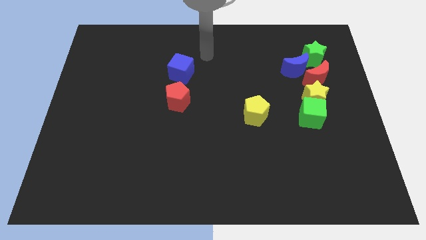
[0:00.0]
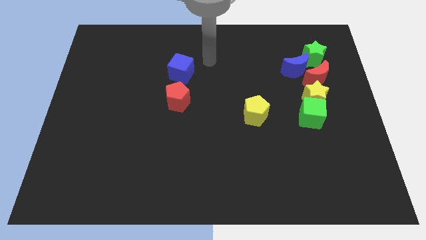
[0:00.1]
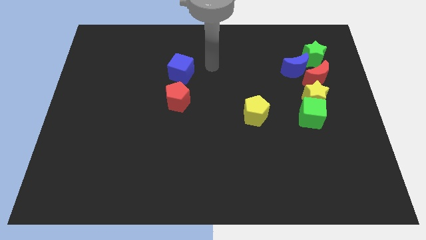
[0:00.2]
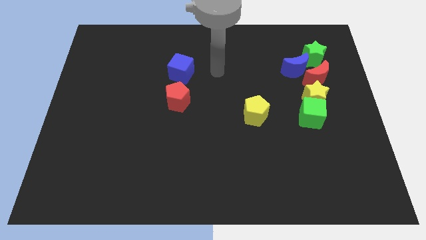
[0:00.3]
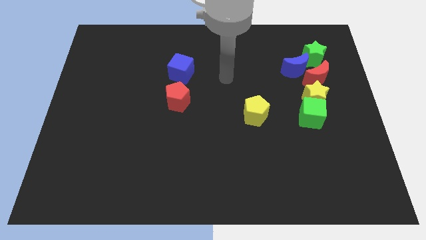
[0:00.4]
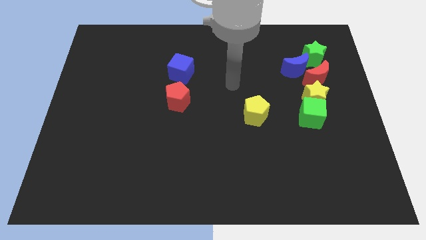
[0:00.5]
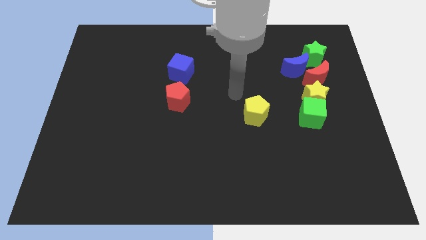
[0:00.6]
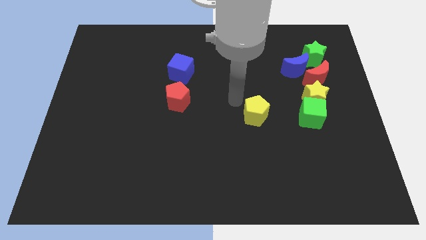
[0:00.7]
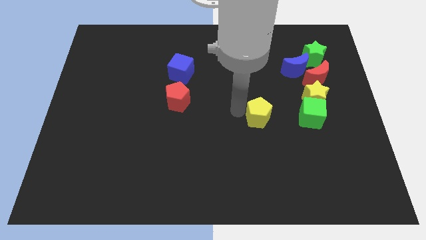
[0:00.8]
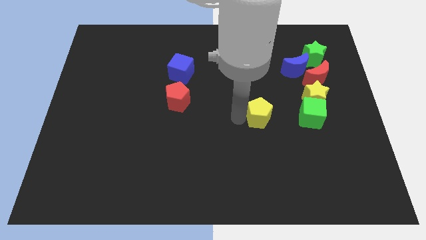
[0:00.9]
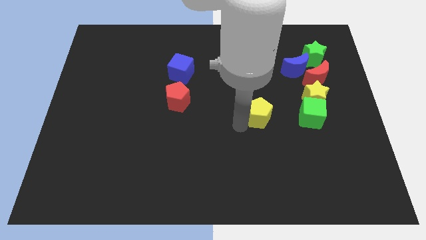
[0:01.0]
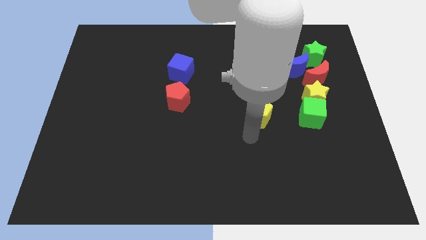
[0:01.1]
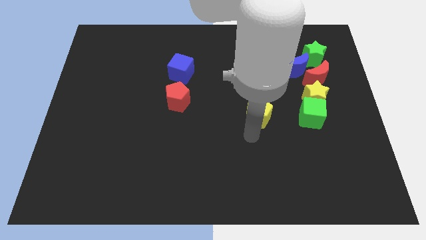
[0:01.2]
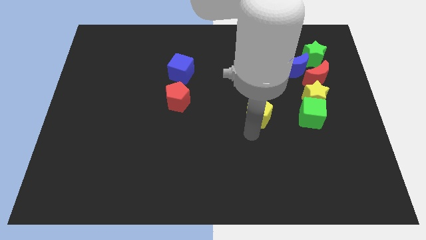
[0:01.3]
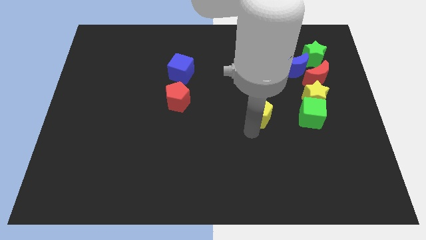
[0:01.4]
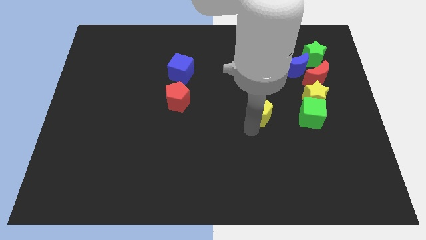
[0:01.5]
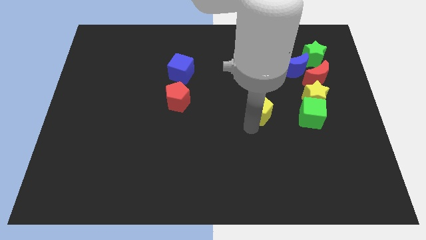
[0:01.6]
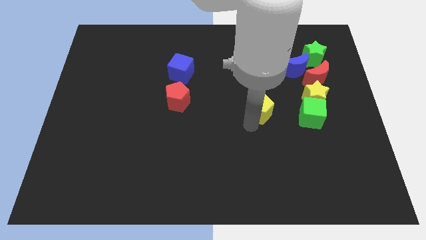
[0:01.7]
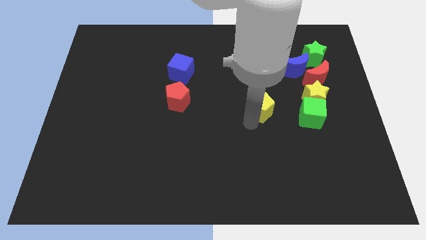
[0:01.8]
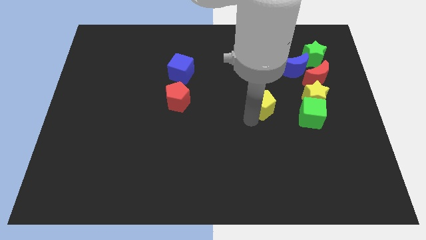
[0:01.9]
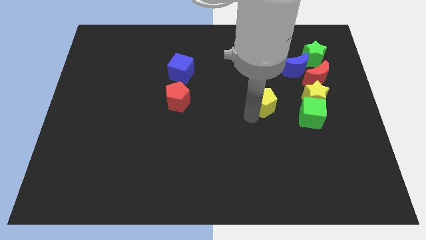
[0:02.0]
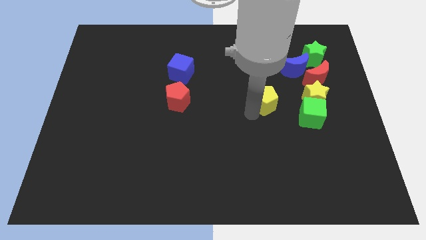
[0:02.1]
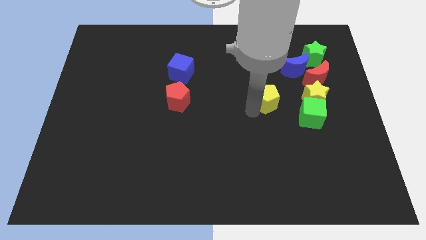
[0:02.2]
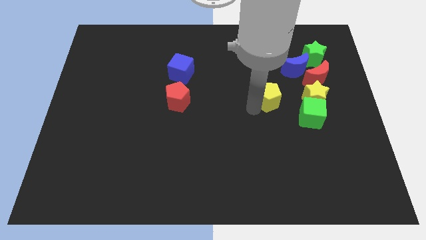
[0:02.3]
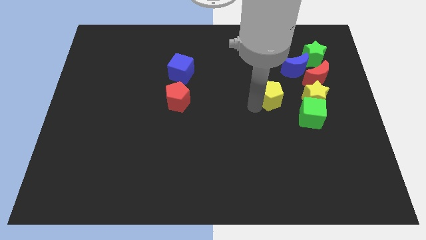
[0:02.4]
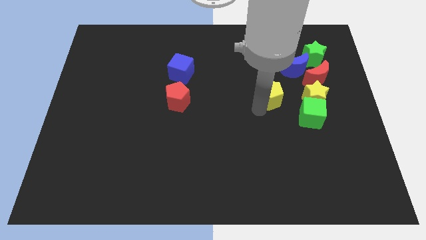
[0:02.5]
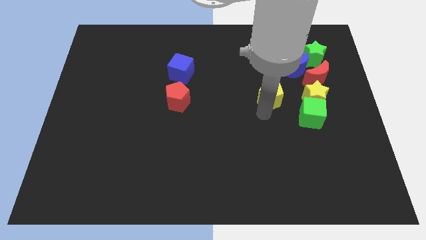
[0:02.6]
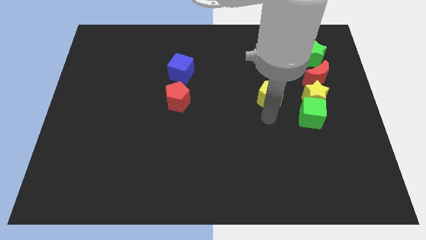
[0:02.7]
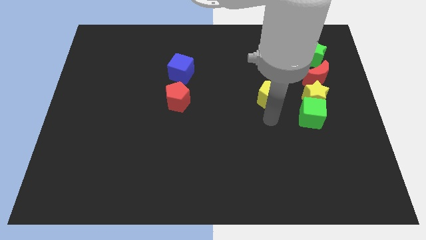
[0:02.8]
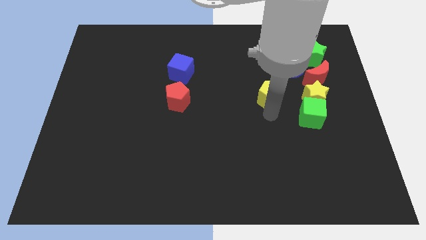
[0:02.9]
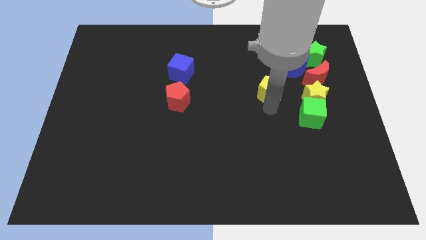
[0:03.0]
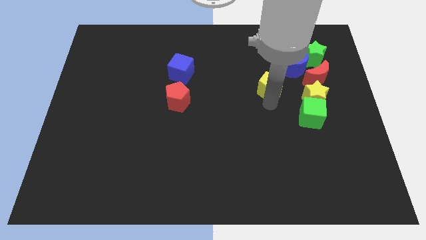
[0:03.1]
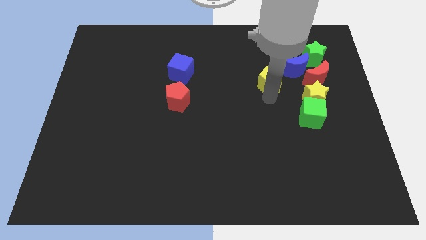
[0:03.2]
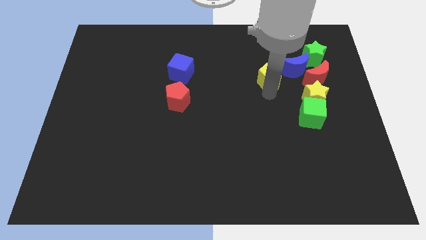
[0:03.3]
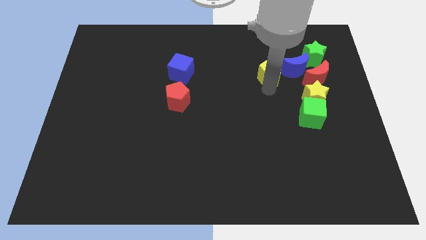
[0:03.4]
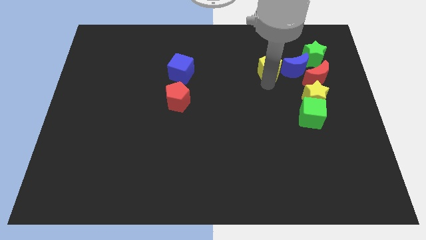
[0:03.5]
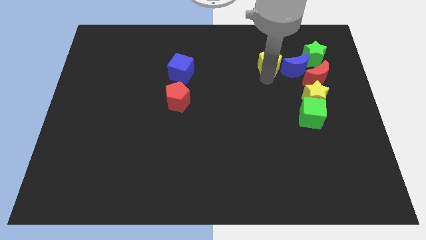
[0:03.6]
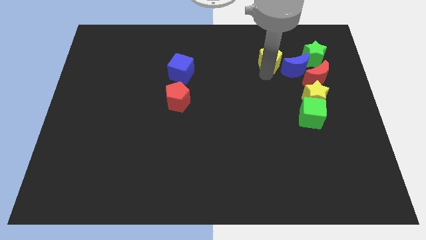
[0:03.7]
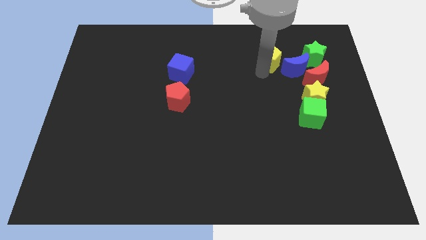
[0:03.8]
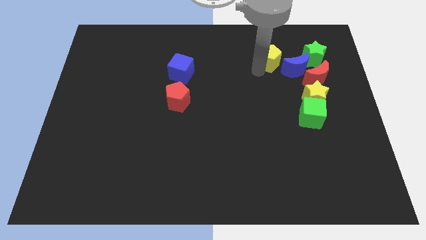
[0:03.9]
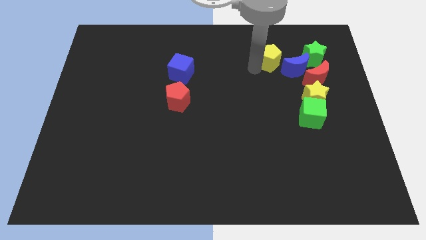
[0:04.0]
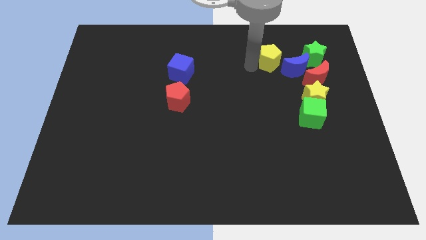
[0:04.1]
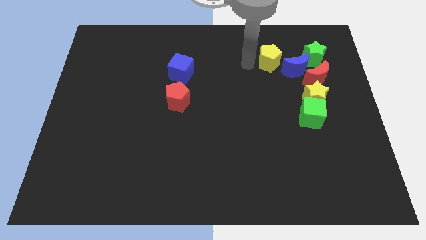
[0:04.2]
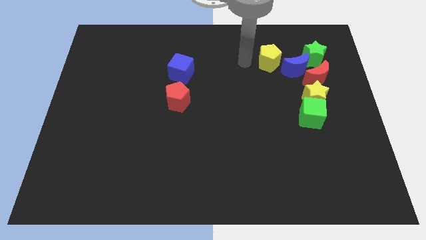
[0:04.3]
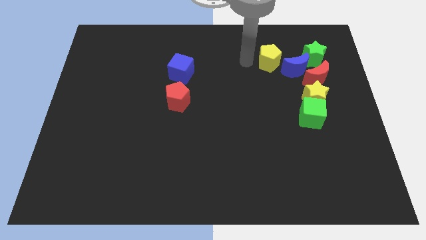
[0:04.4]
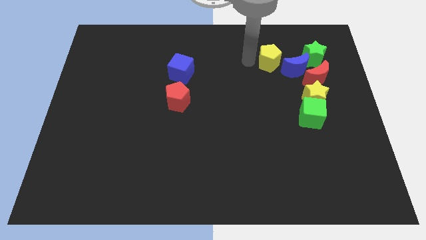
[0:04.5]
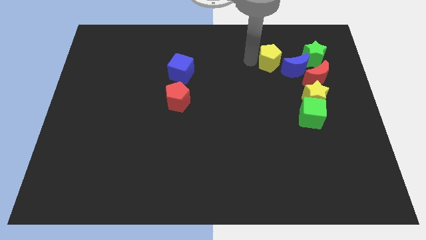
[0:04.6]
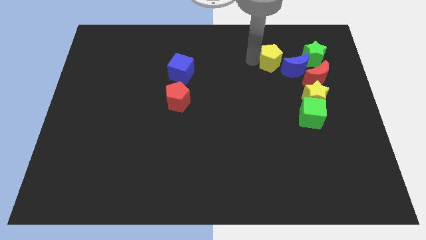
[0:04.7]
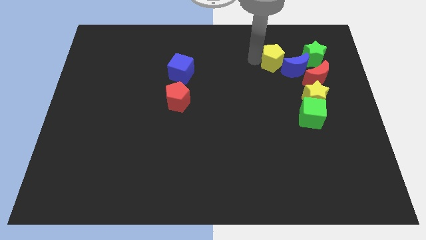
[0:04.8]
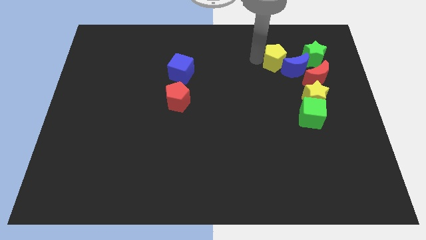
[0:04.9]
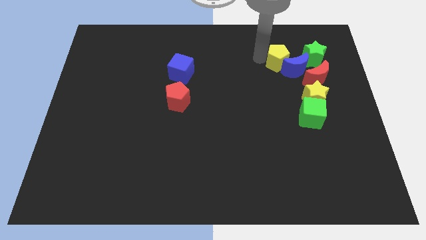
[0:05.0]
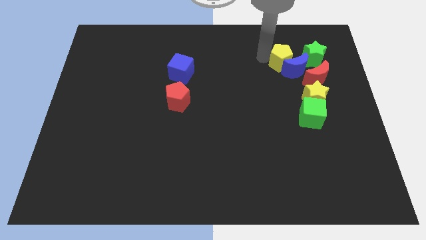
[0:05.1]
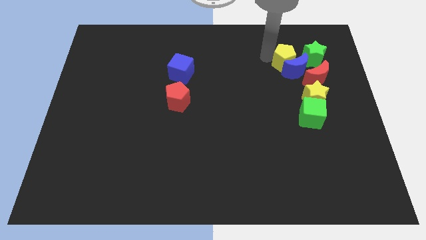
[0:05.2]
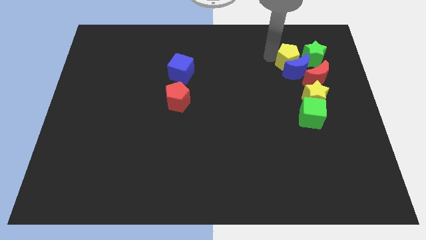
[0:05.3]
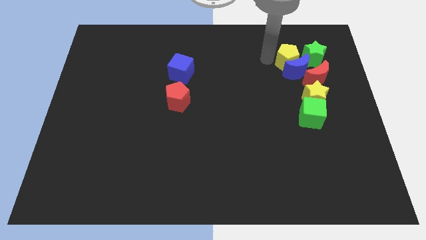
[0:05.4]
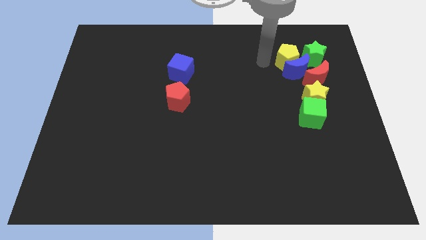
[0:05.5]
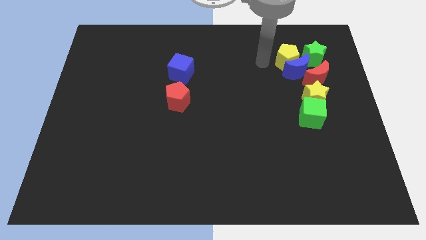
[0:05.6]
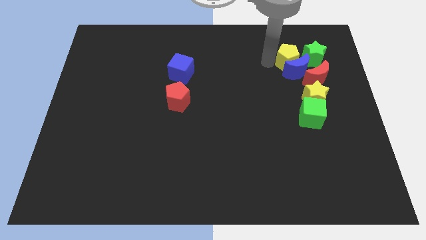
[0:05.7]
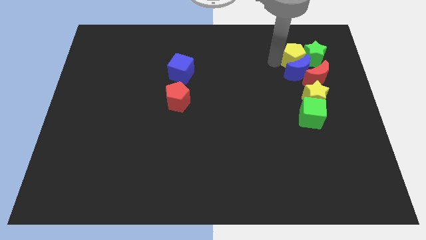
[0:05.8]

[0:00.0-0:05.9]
move the yellow pentagon towards the green star

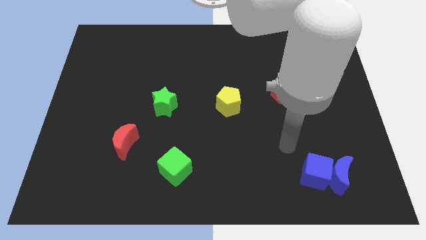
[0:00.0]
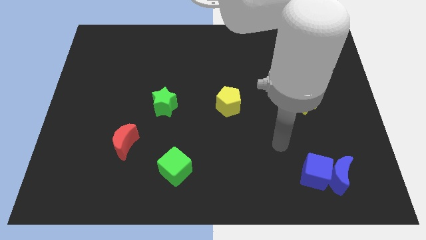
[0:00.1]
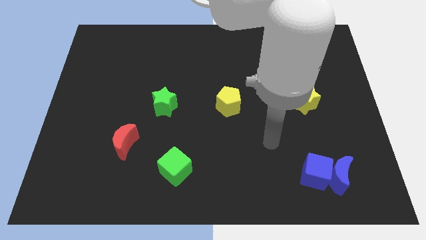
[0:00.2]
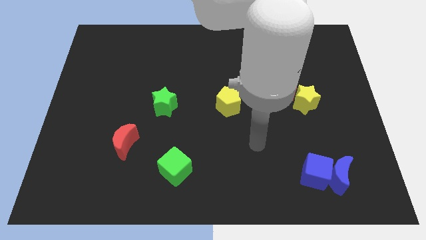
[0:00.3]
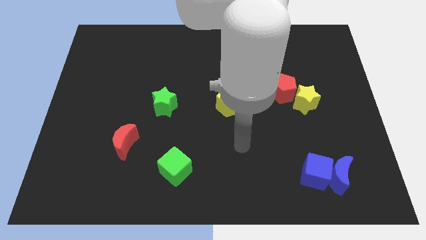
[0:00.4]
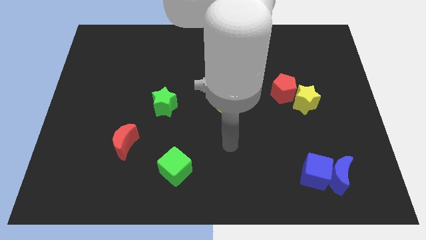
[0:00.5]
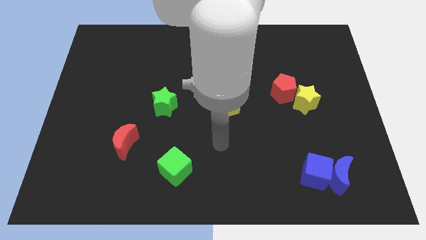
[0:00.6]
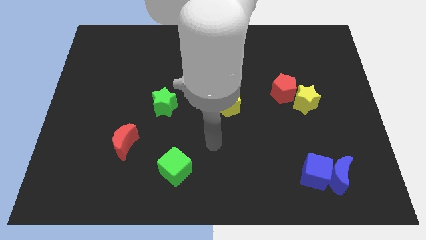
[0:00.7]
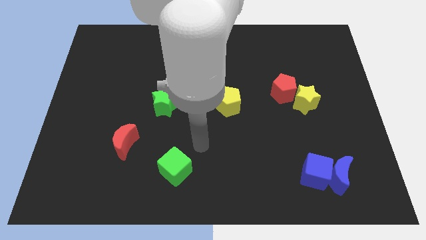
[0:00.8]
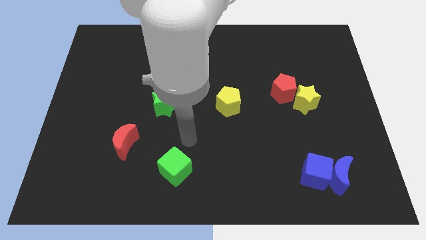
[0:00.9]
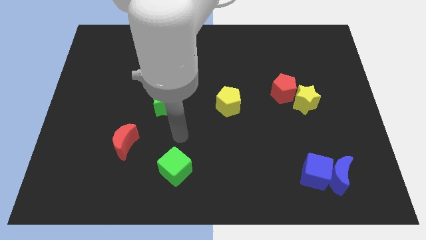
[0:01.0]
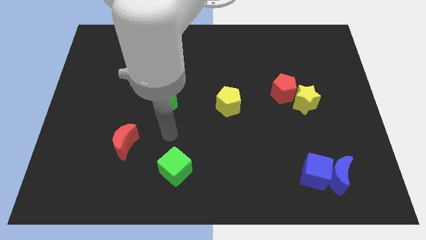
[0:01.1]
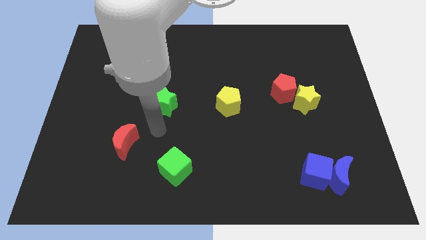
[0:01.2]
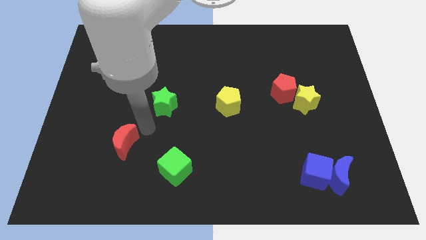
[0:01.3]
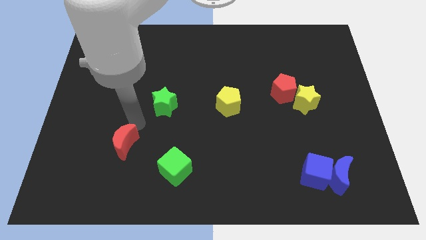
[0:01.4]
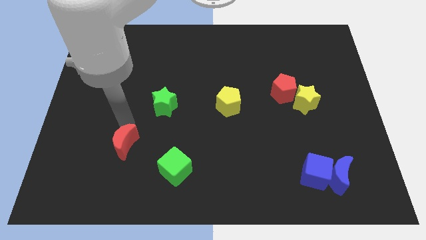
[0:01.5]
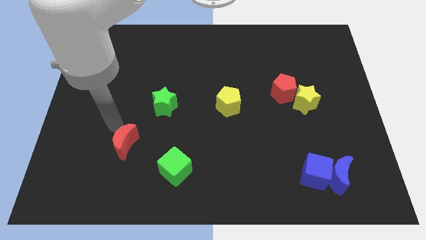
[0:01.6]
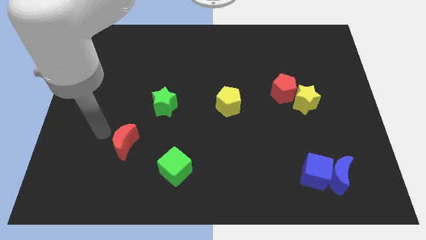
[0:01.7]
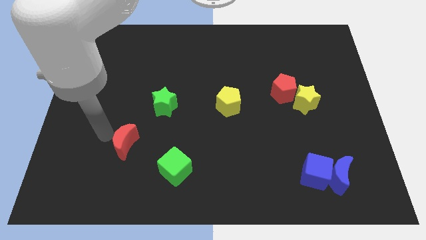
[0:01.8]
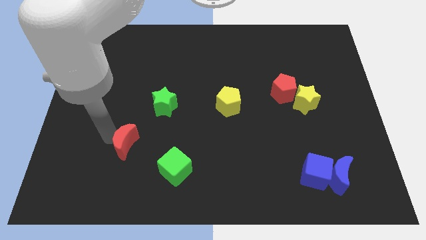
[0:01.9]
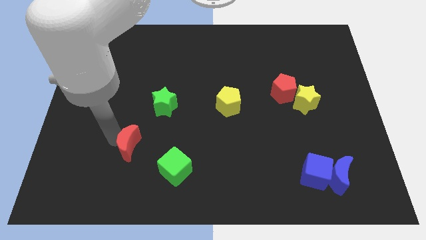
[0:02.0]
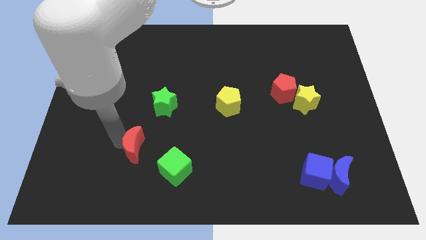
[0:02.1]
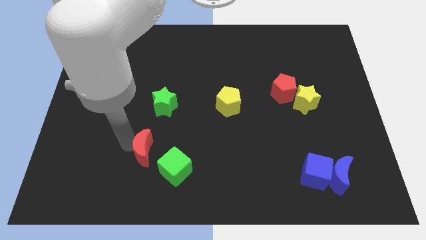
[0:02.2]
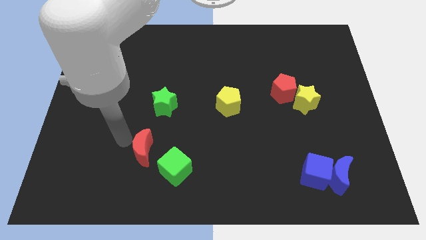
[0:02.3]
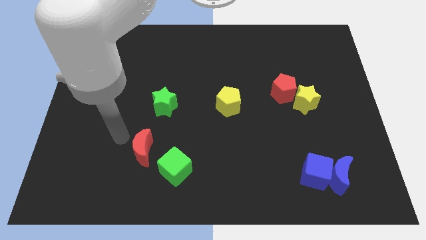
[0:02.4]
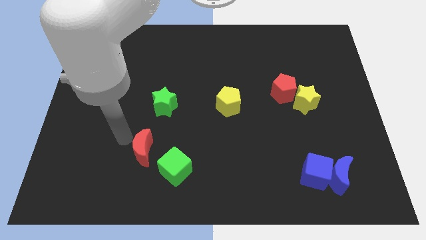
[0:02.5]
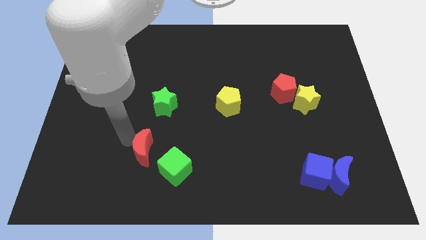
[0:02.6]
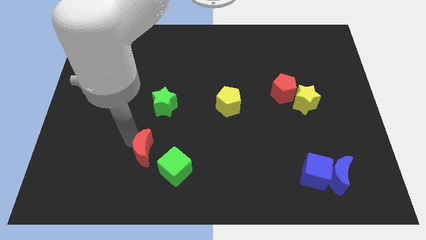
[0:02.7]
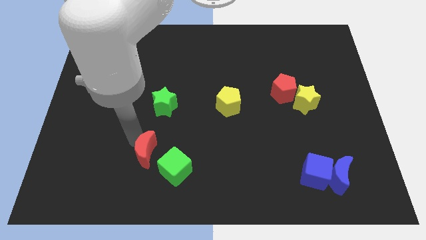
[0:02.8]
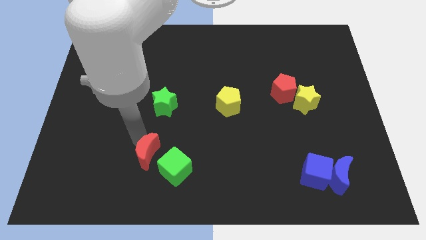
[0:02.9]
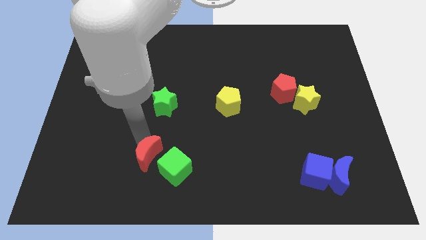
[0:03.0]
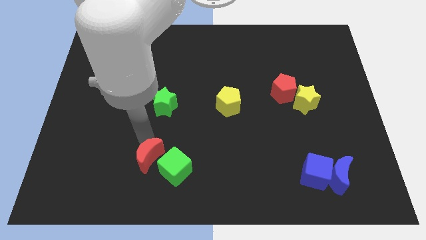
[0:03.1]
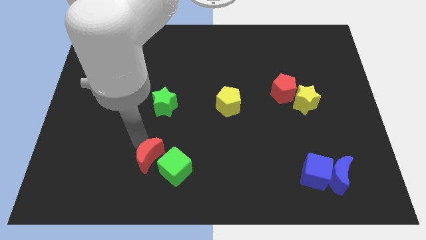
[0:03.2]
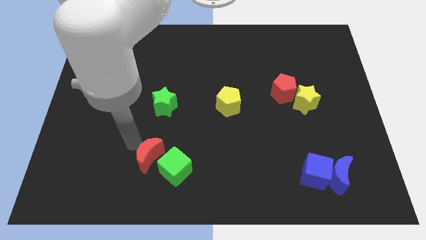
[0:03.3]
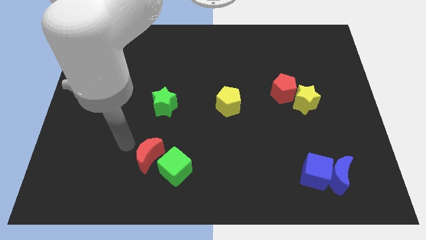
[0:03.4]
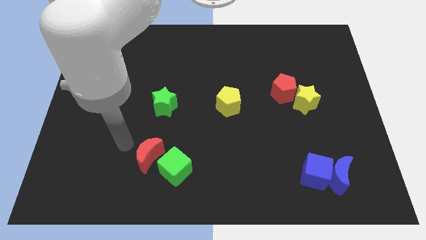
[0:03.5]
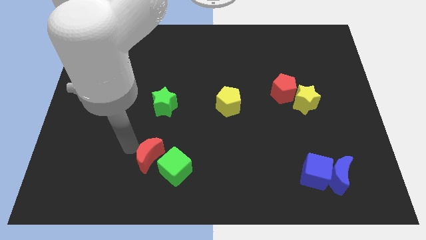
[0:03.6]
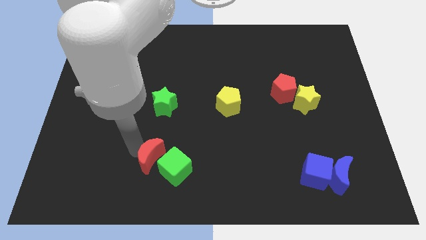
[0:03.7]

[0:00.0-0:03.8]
slide the red moon to the green cube
